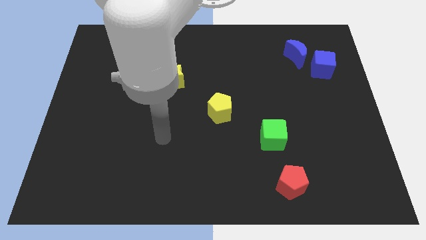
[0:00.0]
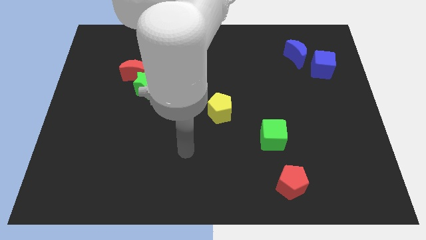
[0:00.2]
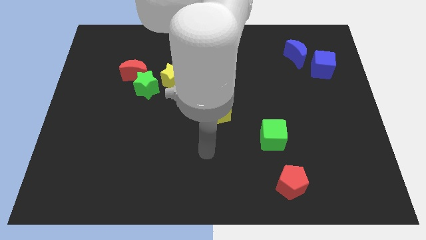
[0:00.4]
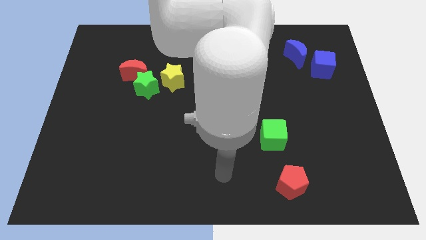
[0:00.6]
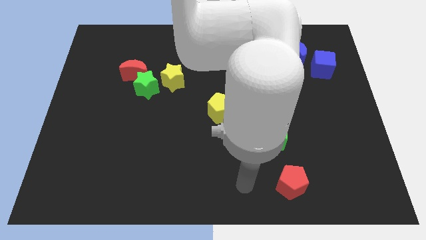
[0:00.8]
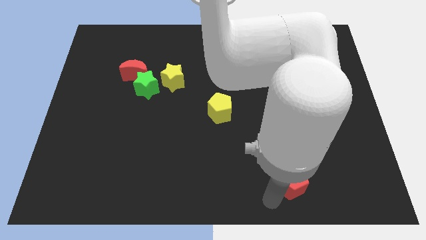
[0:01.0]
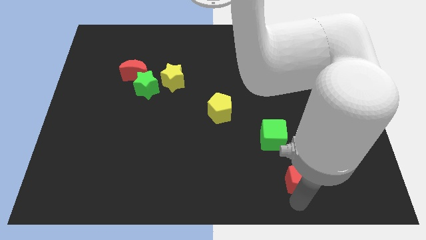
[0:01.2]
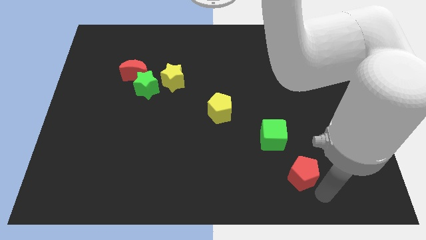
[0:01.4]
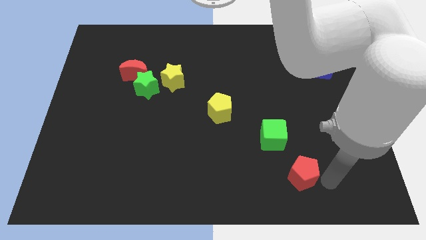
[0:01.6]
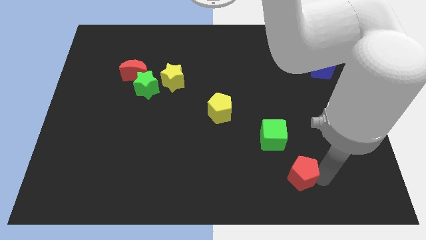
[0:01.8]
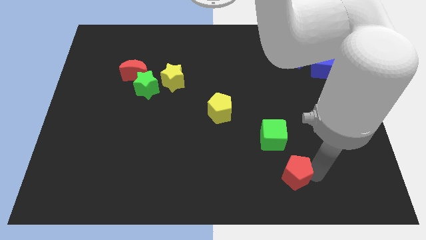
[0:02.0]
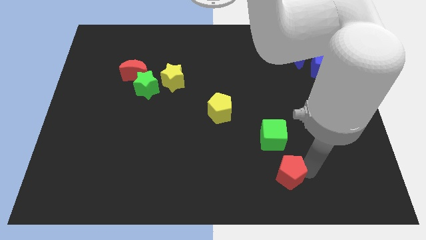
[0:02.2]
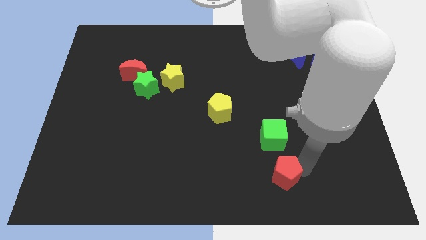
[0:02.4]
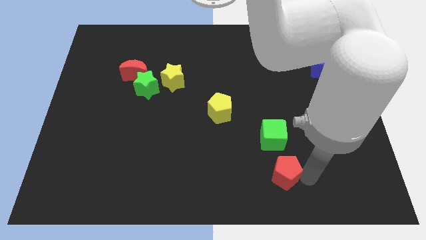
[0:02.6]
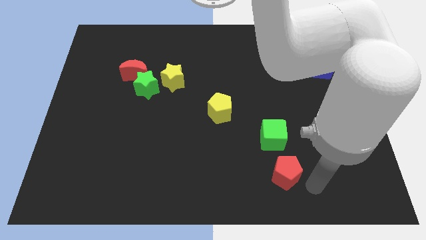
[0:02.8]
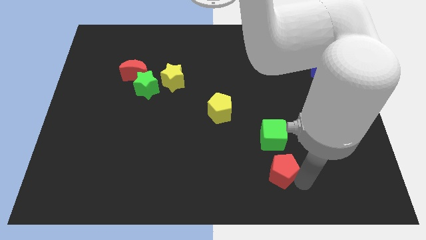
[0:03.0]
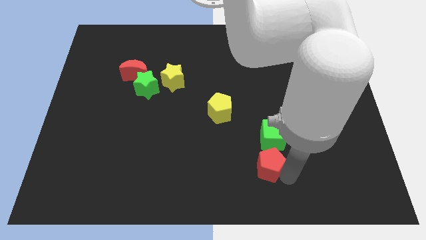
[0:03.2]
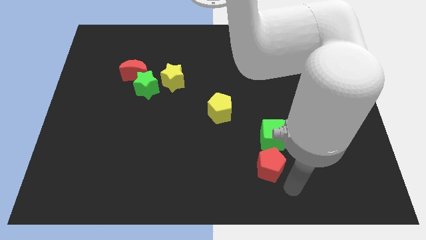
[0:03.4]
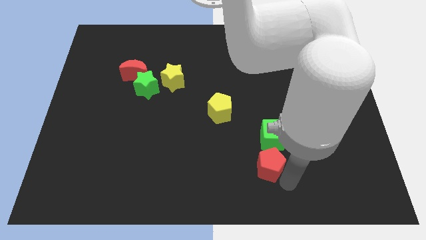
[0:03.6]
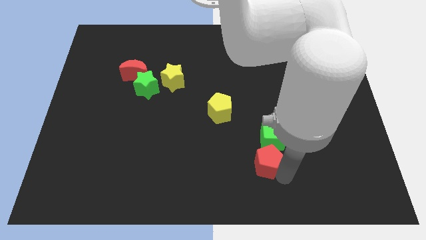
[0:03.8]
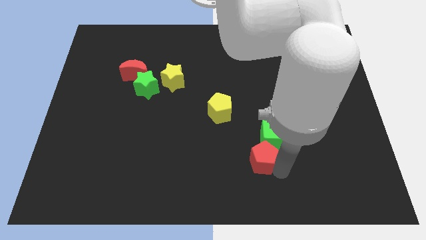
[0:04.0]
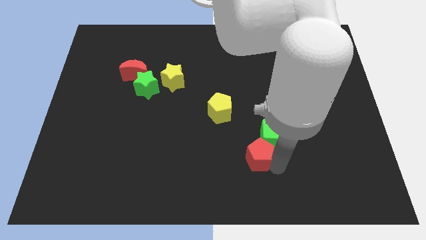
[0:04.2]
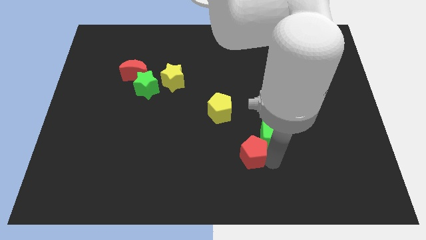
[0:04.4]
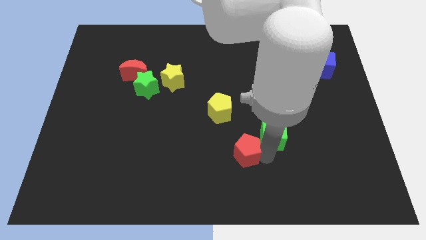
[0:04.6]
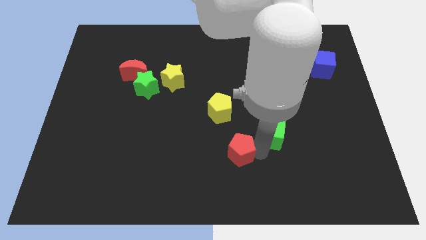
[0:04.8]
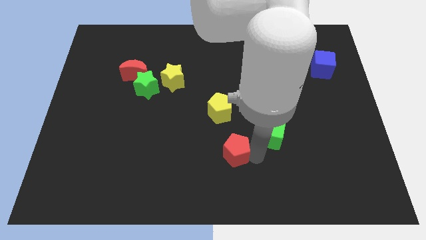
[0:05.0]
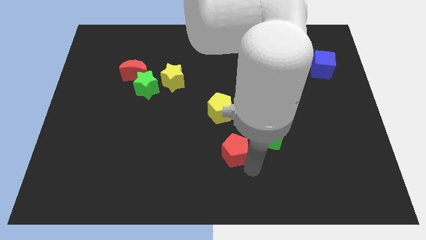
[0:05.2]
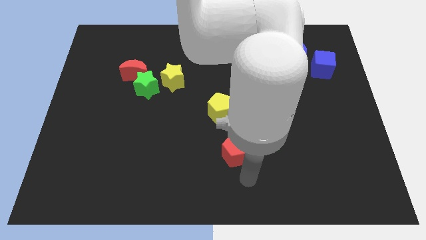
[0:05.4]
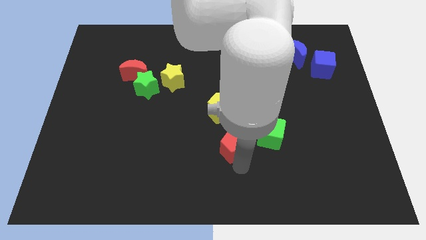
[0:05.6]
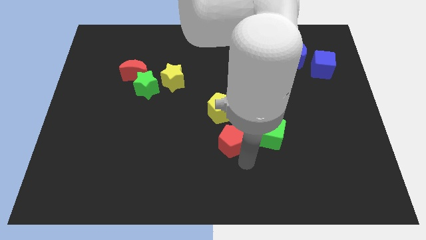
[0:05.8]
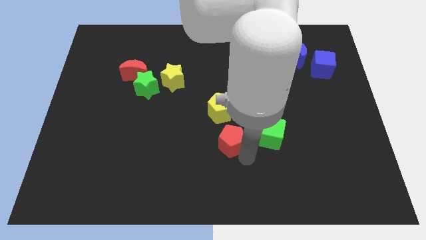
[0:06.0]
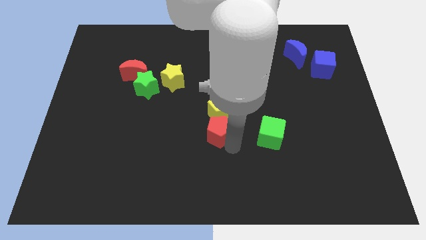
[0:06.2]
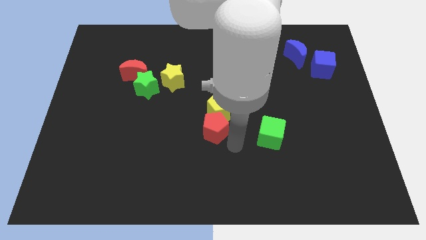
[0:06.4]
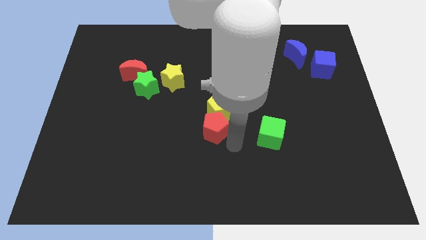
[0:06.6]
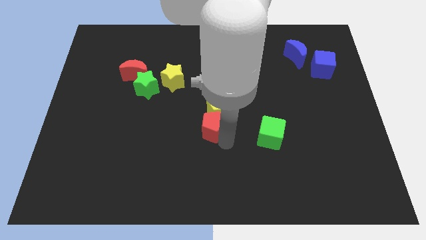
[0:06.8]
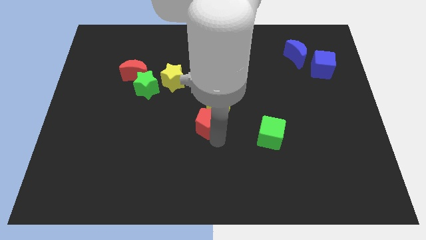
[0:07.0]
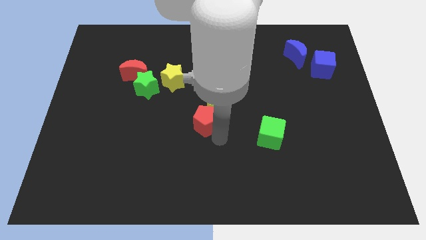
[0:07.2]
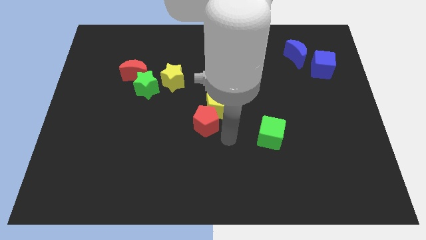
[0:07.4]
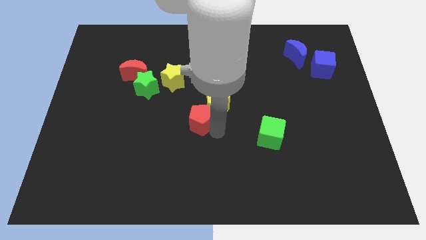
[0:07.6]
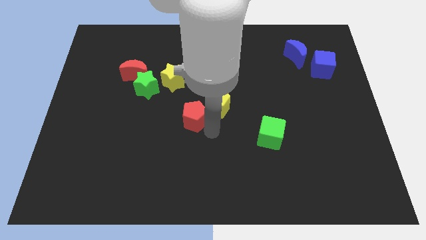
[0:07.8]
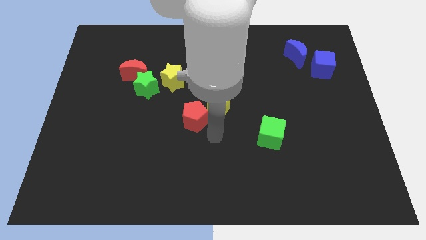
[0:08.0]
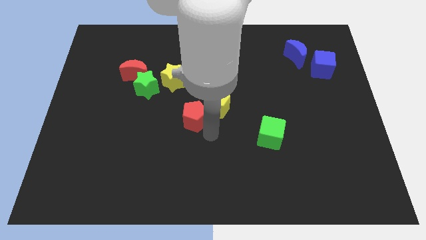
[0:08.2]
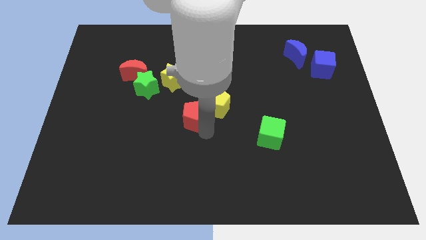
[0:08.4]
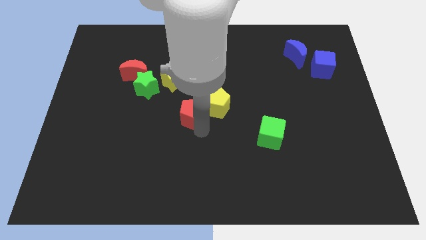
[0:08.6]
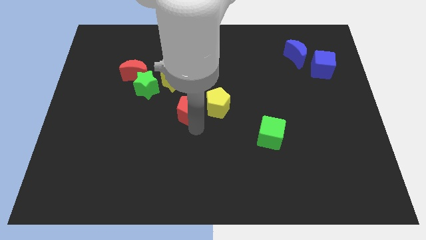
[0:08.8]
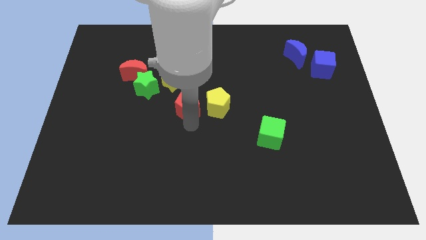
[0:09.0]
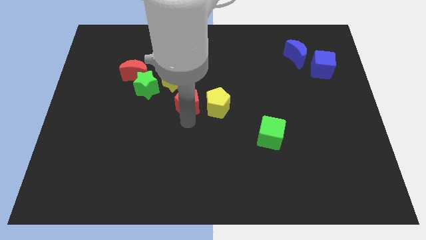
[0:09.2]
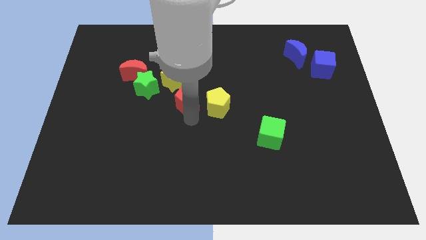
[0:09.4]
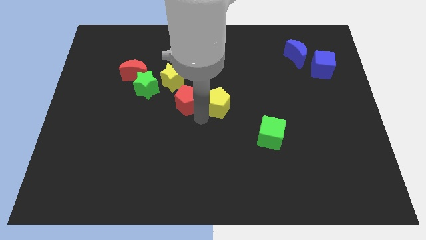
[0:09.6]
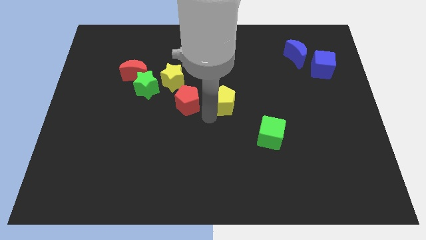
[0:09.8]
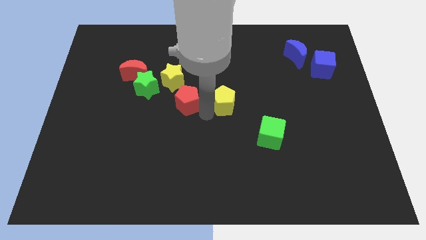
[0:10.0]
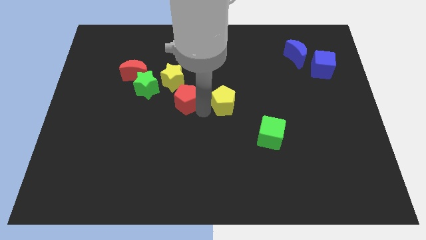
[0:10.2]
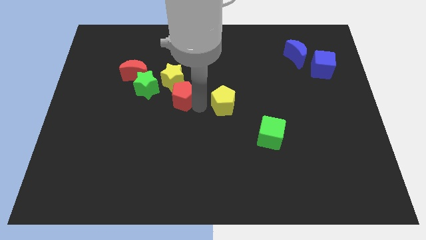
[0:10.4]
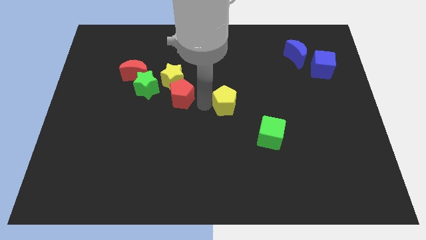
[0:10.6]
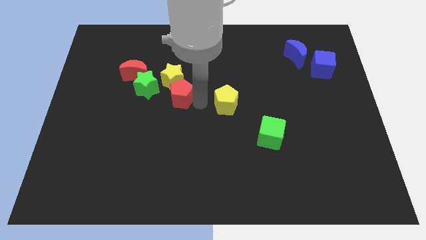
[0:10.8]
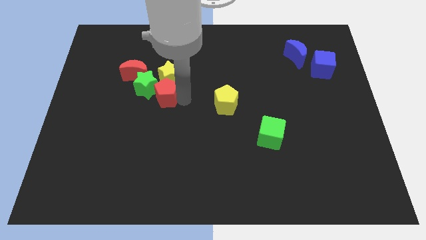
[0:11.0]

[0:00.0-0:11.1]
put the red pentagon towards the green star

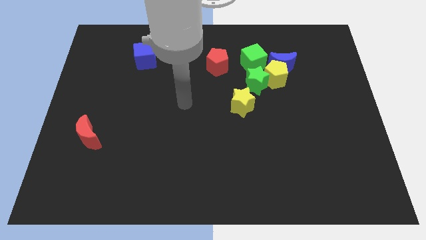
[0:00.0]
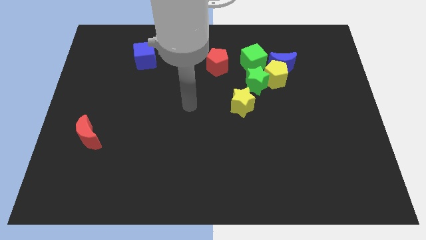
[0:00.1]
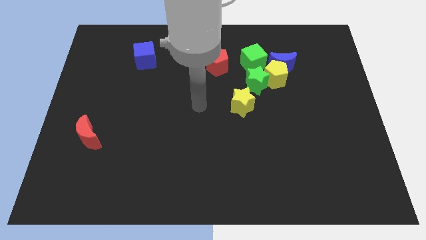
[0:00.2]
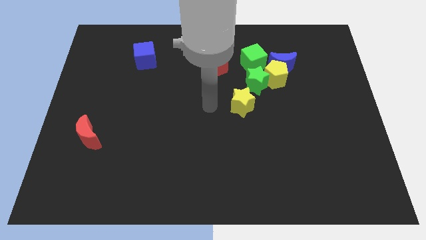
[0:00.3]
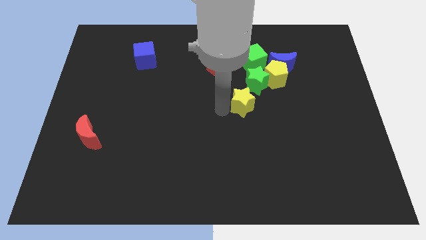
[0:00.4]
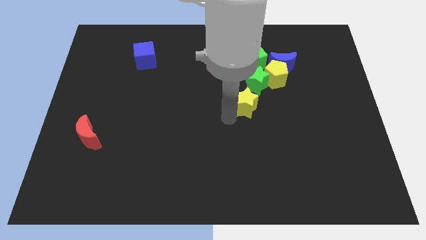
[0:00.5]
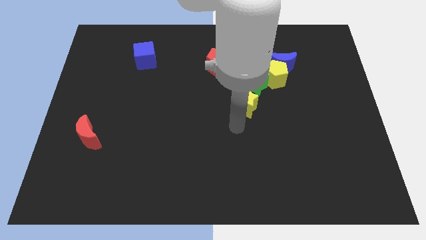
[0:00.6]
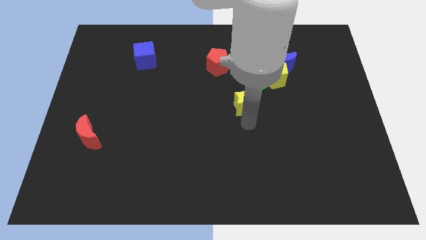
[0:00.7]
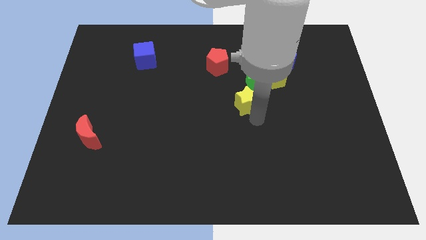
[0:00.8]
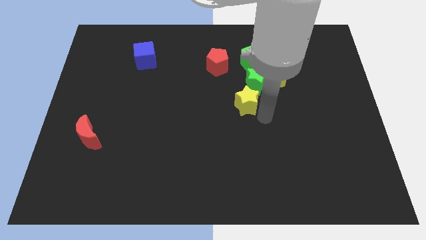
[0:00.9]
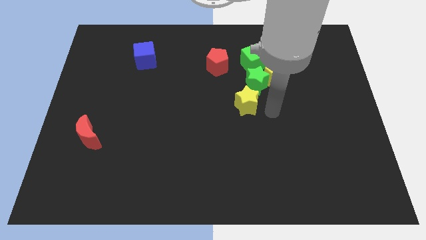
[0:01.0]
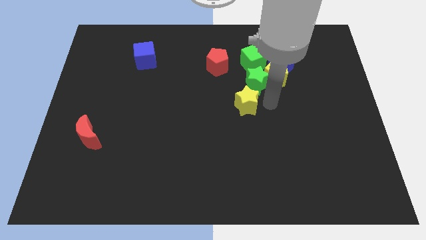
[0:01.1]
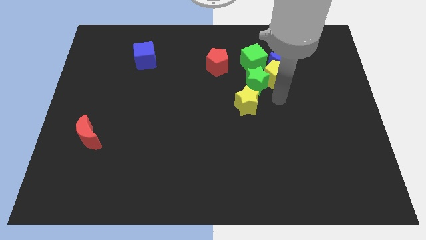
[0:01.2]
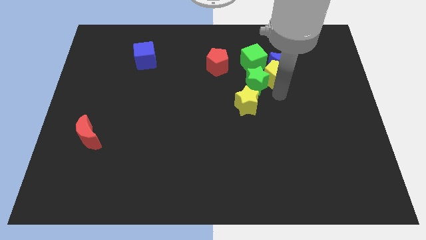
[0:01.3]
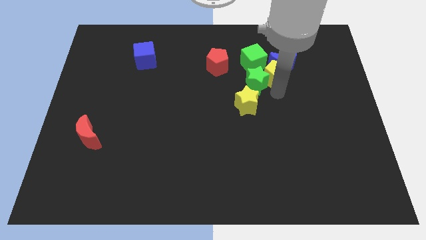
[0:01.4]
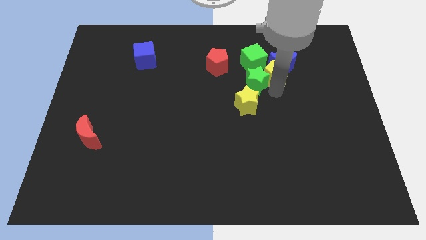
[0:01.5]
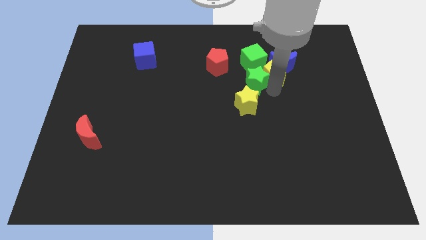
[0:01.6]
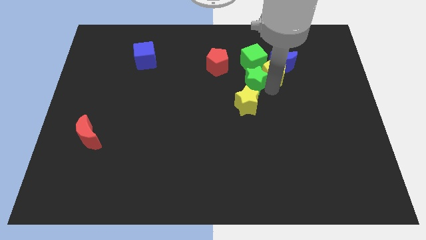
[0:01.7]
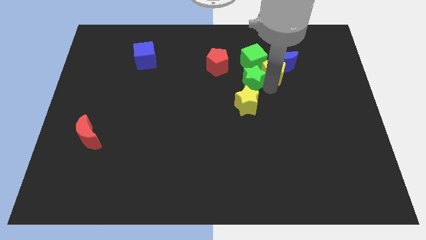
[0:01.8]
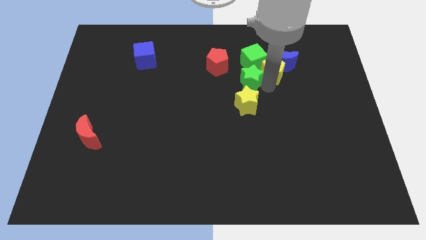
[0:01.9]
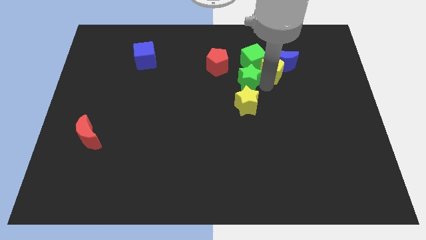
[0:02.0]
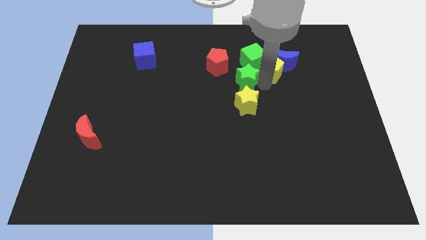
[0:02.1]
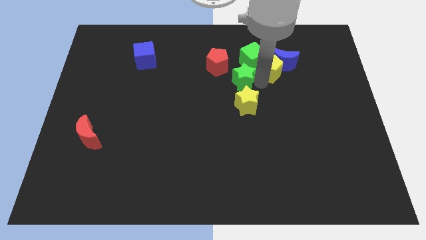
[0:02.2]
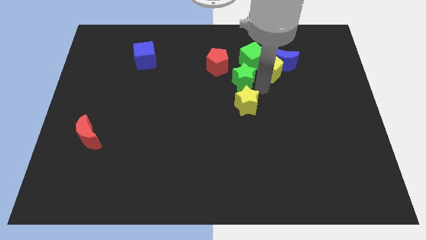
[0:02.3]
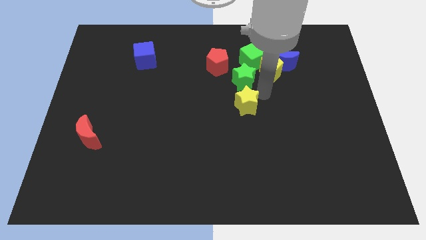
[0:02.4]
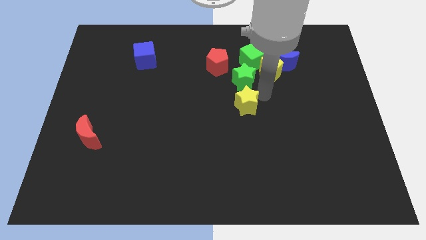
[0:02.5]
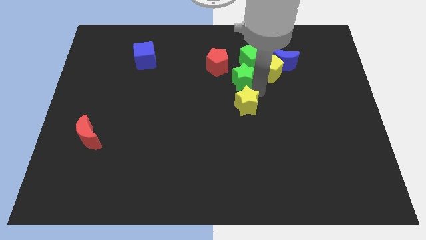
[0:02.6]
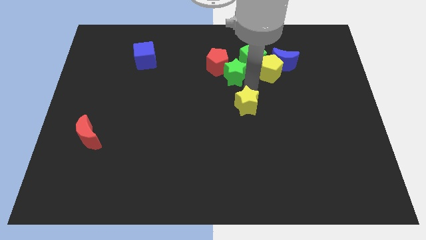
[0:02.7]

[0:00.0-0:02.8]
push the green star next to the red pentagon
